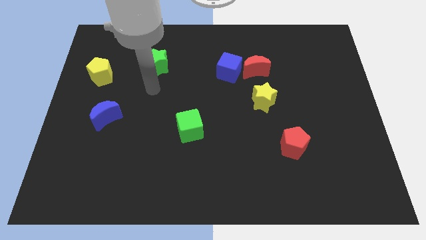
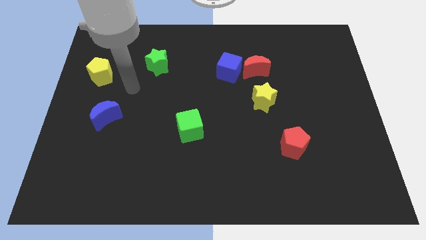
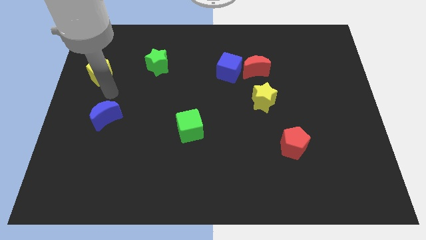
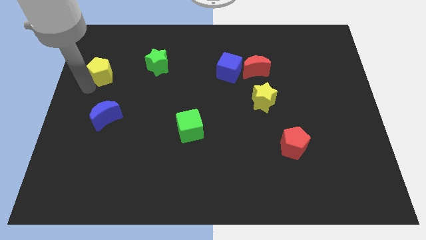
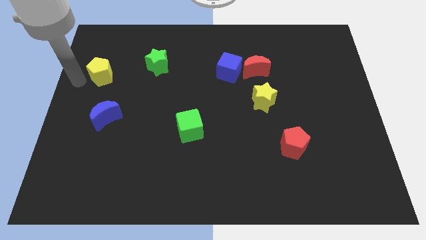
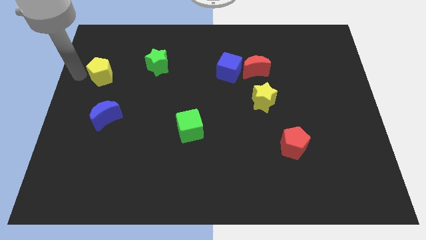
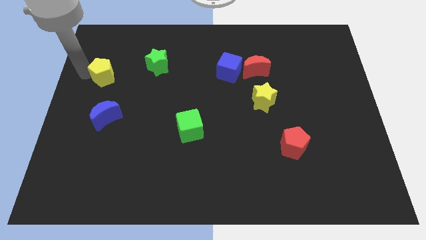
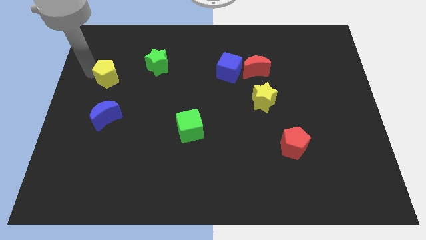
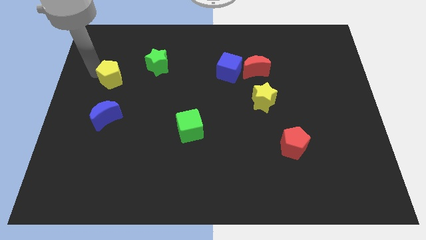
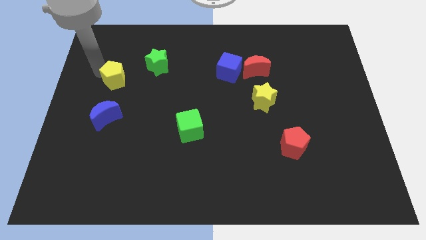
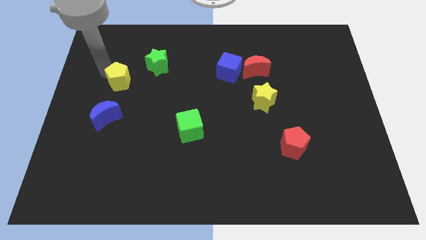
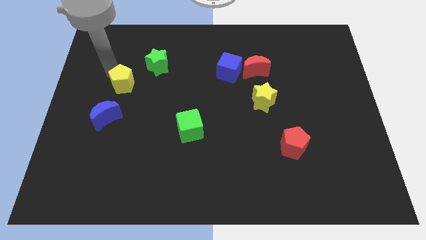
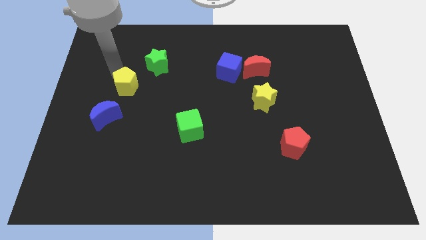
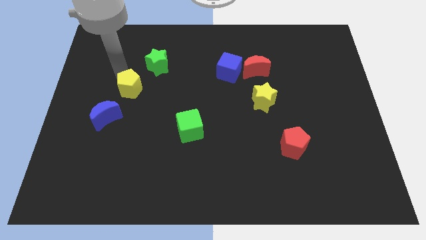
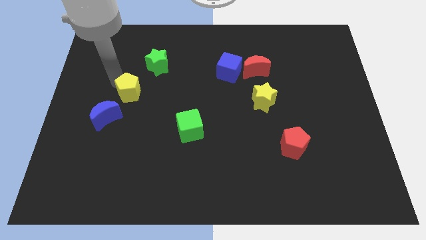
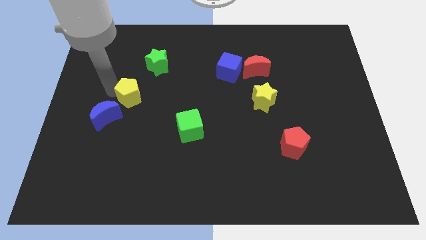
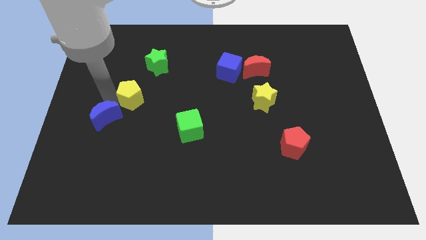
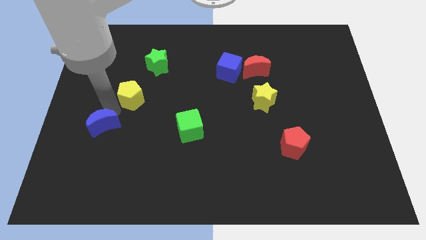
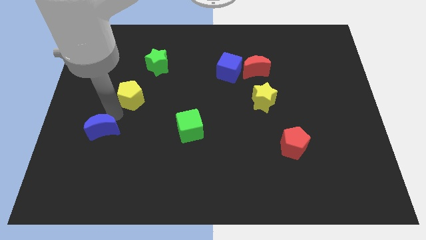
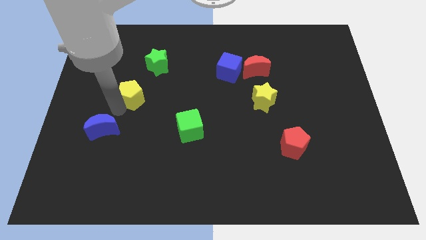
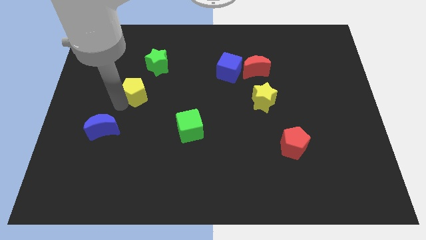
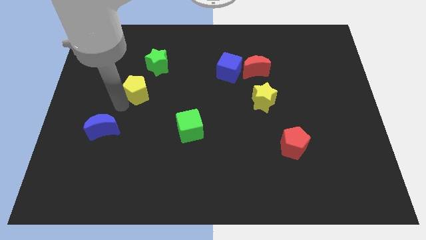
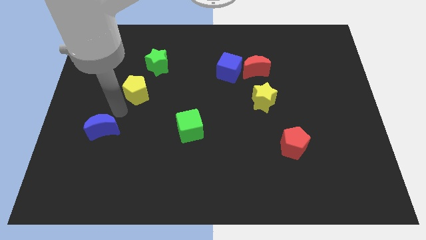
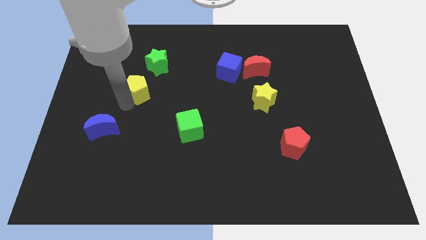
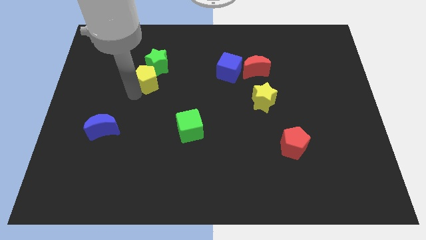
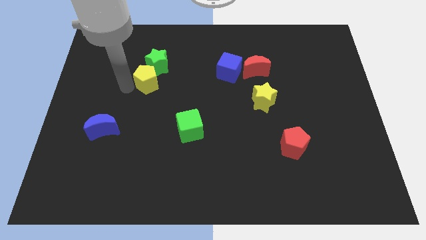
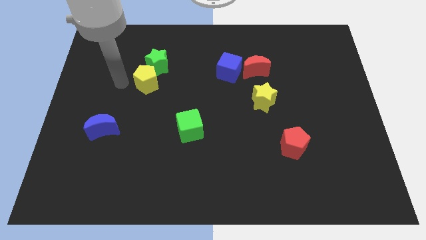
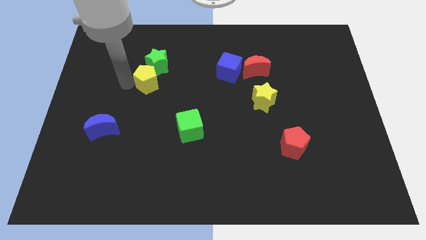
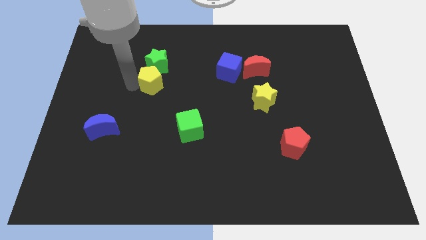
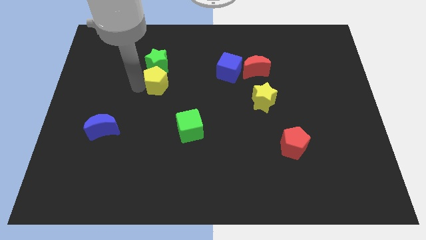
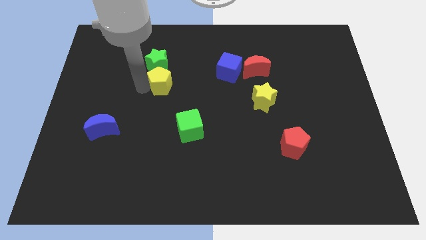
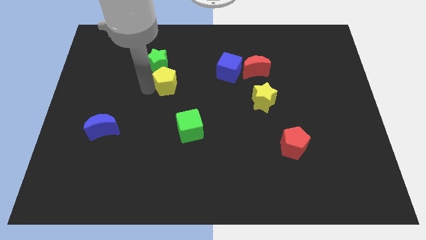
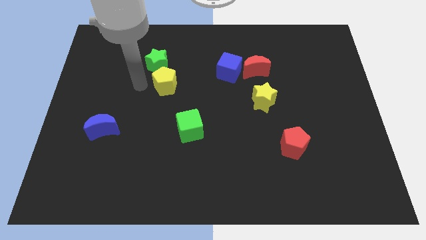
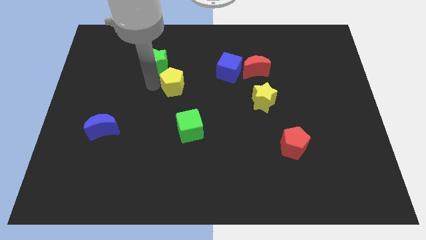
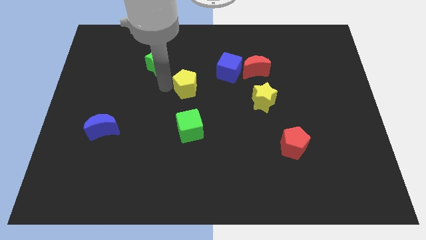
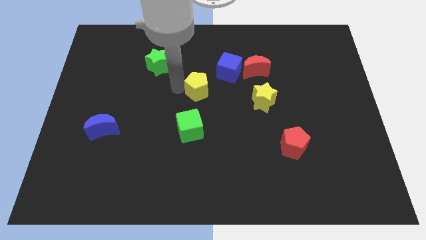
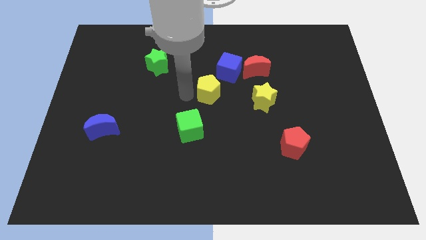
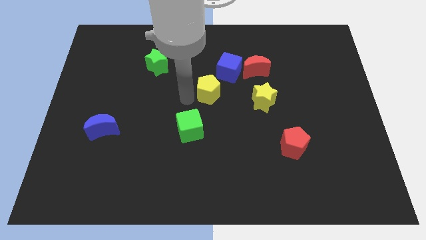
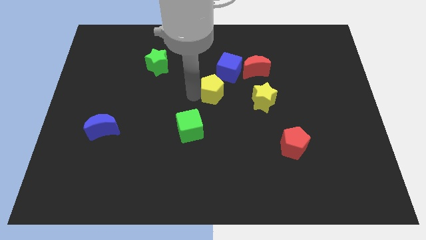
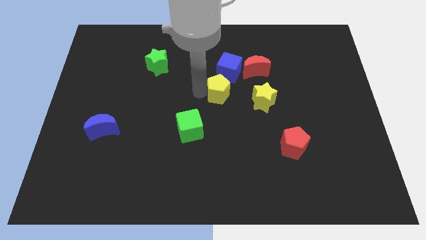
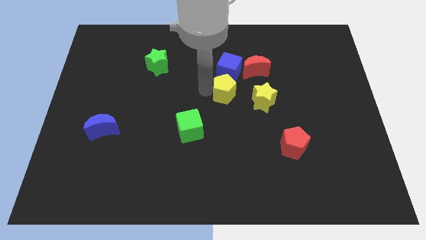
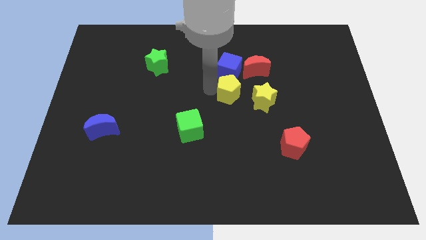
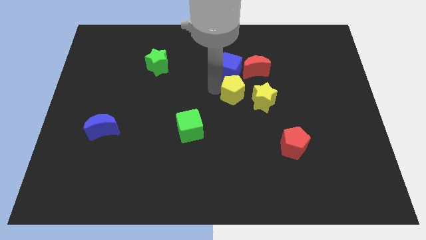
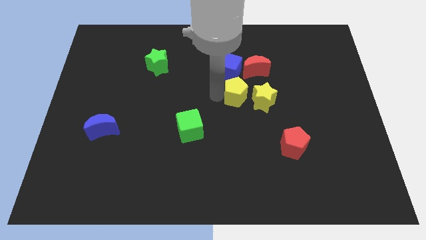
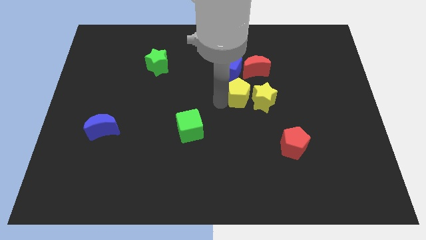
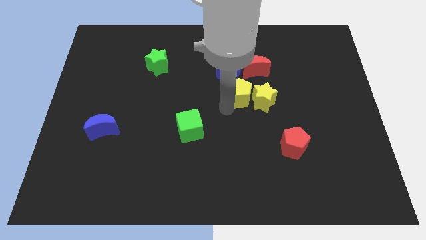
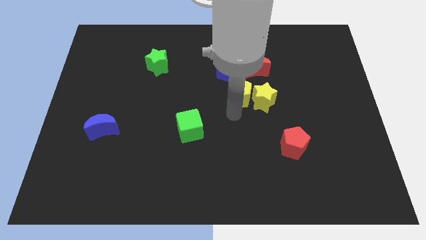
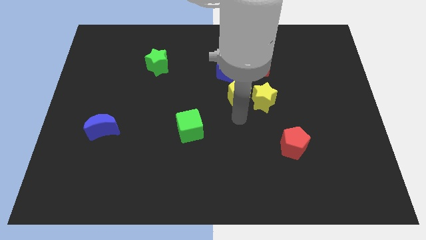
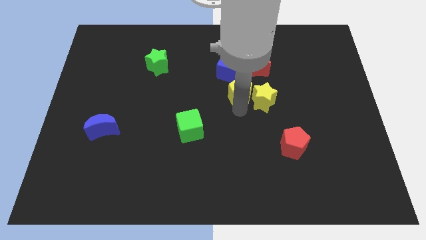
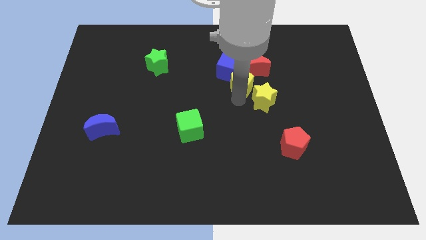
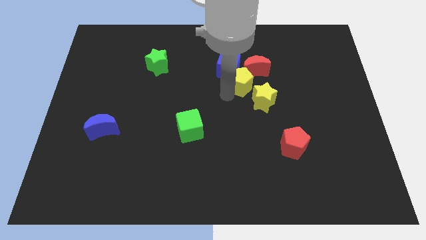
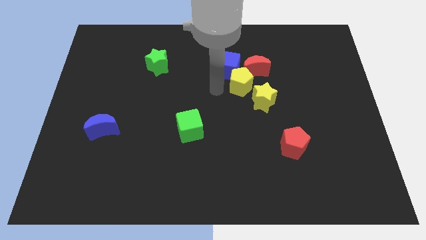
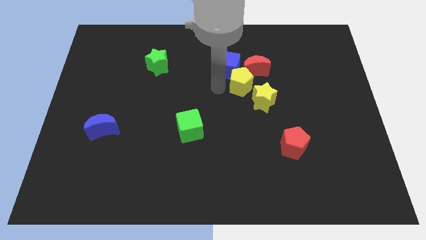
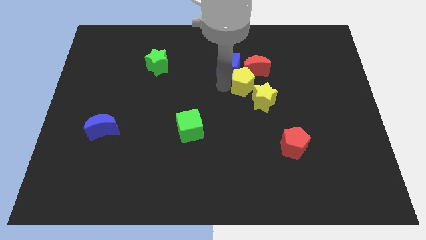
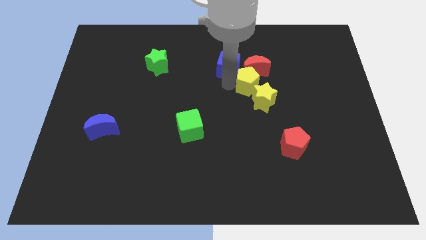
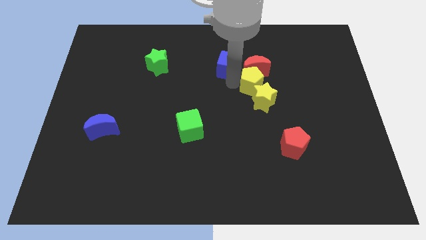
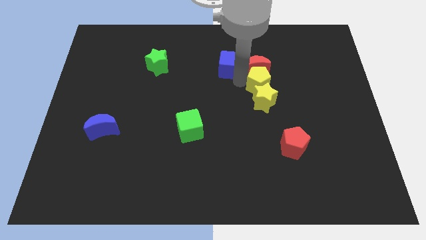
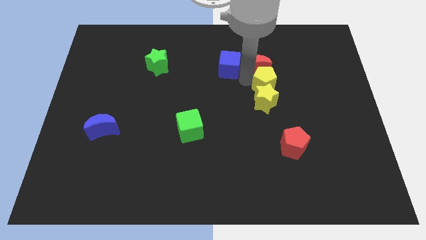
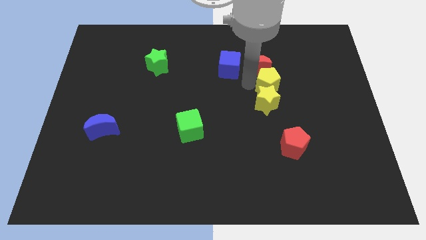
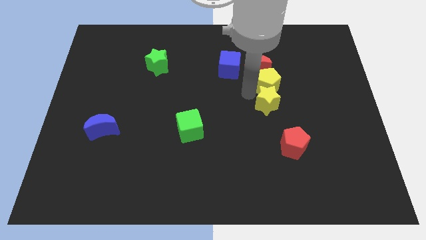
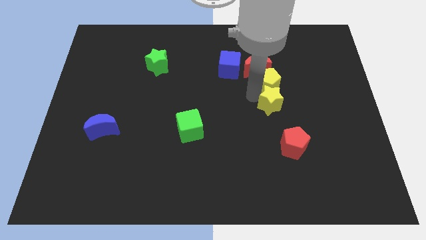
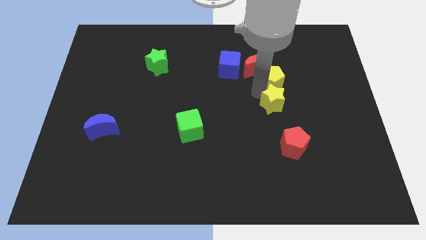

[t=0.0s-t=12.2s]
put the yellow pentagon to the right of the red moon
